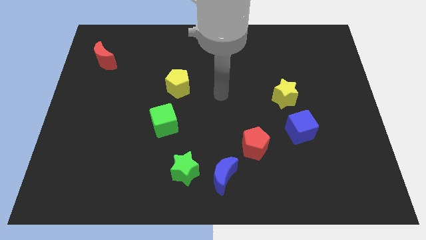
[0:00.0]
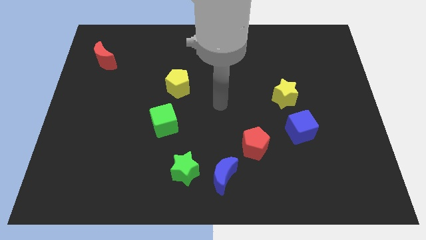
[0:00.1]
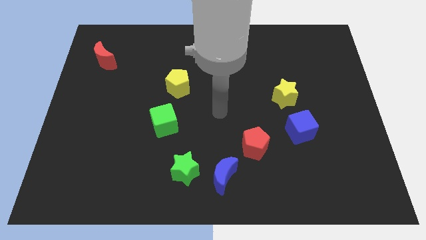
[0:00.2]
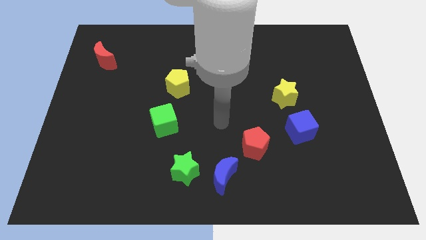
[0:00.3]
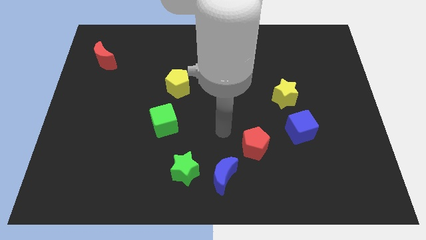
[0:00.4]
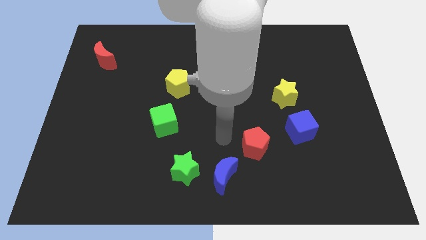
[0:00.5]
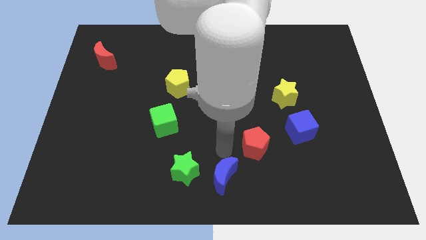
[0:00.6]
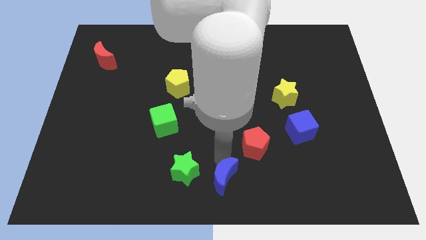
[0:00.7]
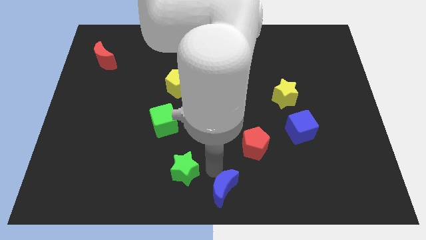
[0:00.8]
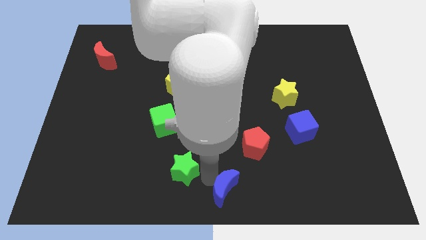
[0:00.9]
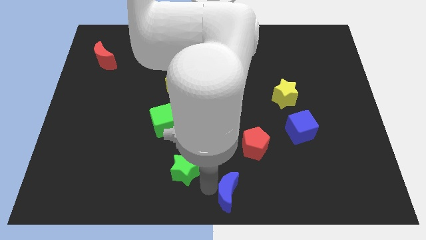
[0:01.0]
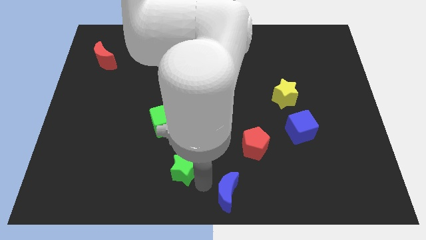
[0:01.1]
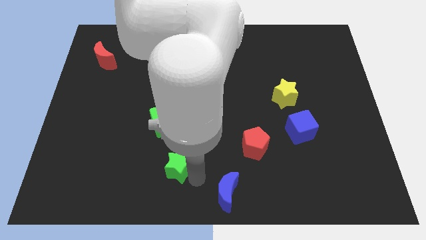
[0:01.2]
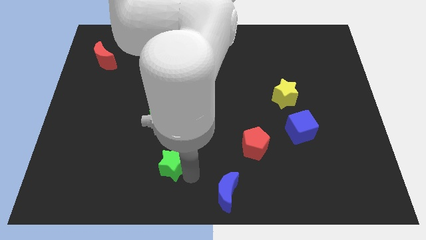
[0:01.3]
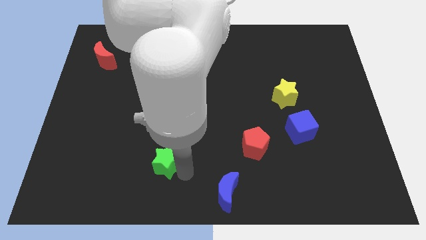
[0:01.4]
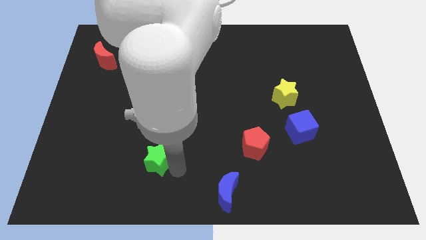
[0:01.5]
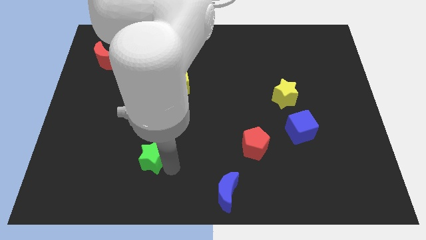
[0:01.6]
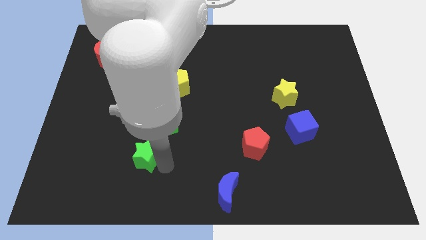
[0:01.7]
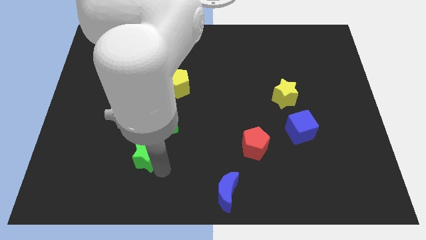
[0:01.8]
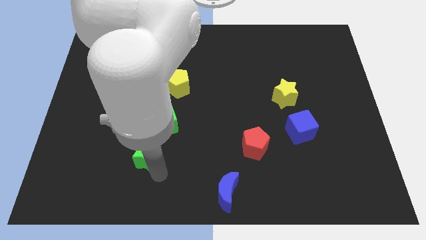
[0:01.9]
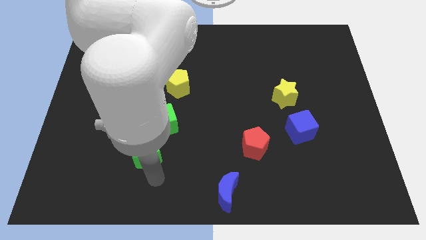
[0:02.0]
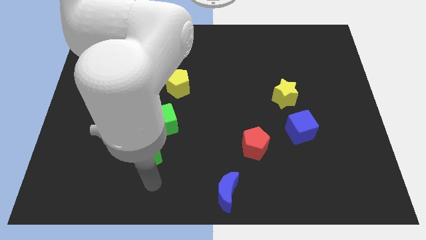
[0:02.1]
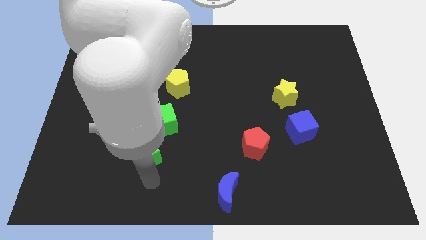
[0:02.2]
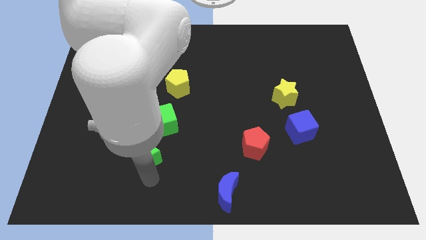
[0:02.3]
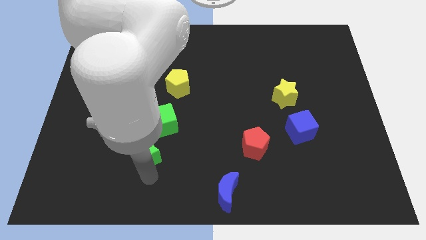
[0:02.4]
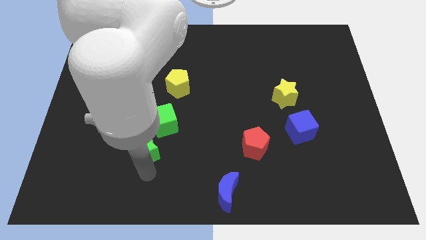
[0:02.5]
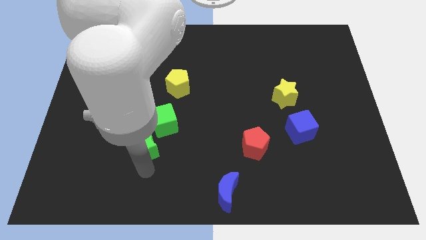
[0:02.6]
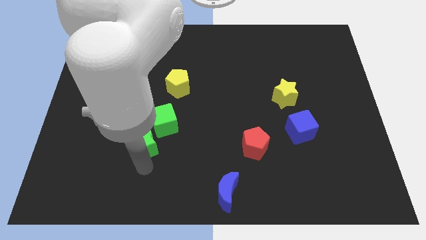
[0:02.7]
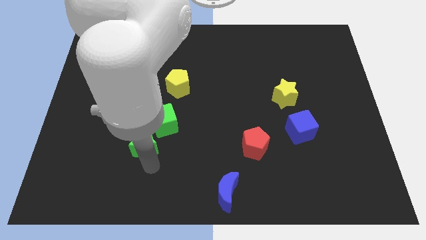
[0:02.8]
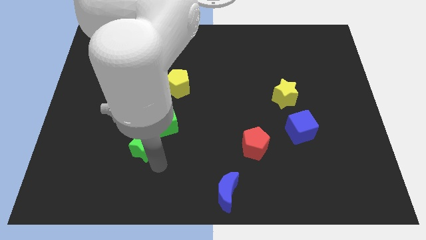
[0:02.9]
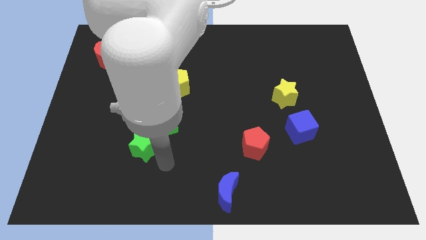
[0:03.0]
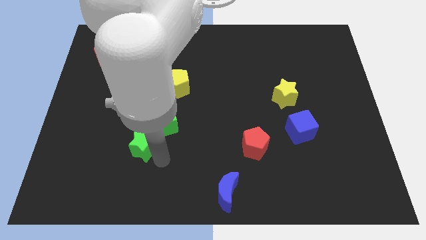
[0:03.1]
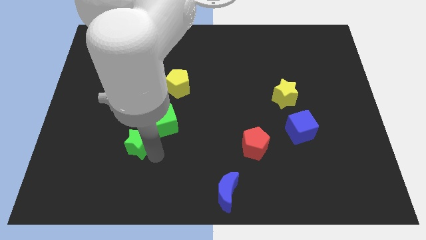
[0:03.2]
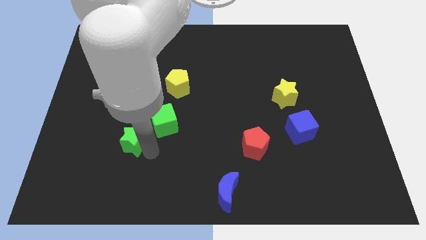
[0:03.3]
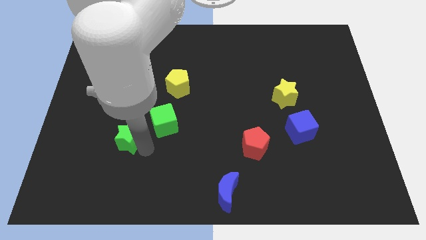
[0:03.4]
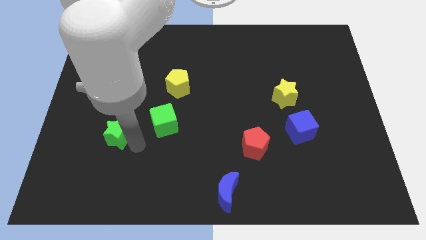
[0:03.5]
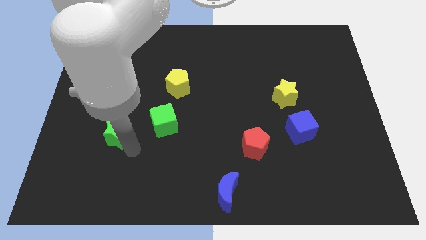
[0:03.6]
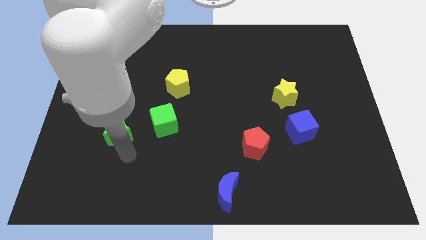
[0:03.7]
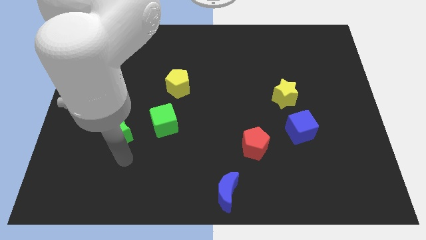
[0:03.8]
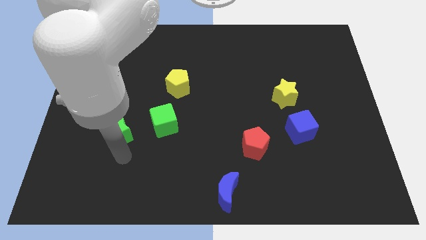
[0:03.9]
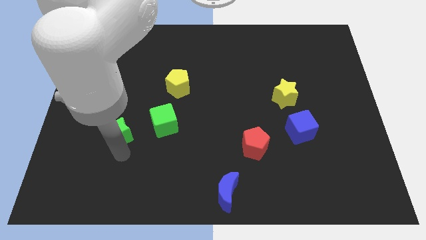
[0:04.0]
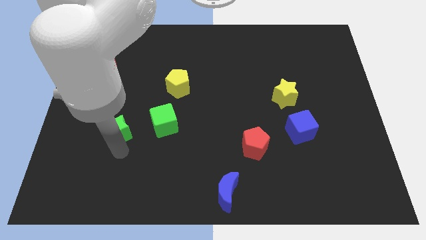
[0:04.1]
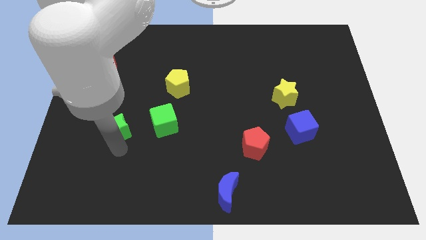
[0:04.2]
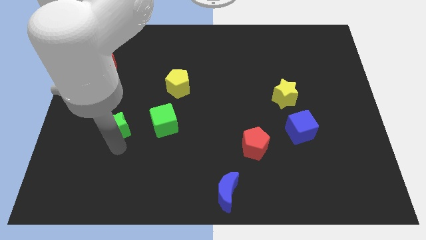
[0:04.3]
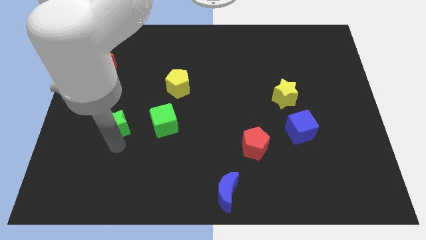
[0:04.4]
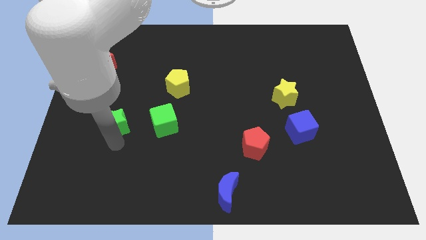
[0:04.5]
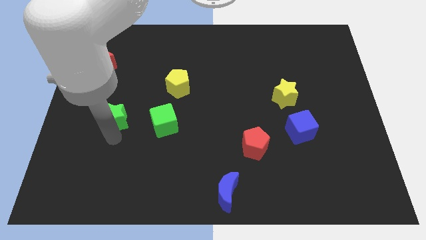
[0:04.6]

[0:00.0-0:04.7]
push the green star upwards and to the left

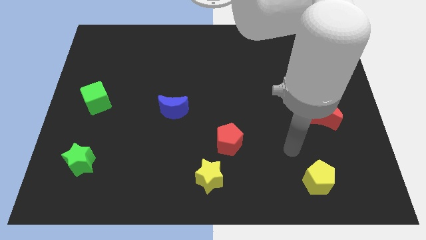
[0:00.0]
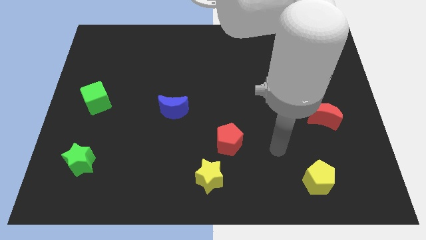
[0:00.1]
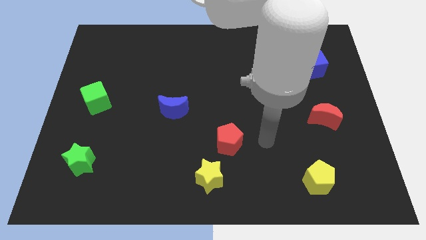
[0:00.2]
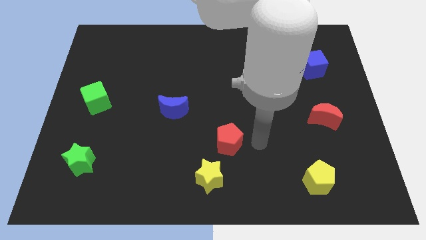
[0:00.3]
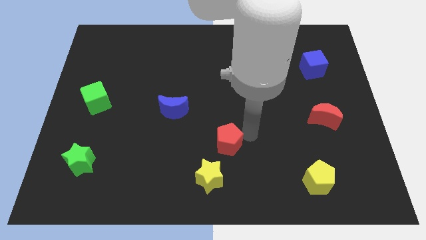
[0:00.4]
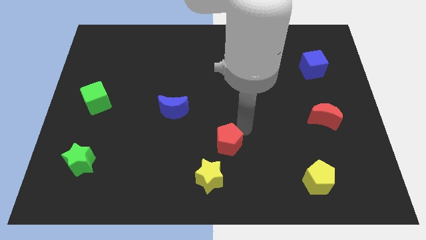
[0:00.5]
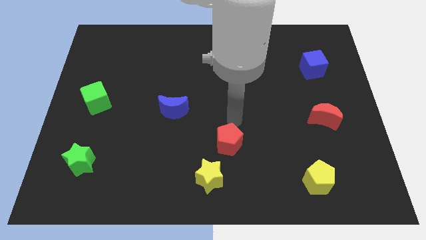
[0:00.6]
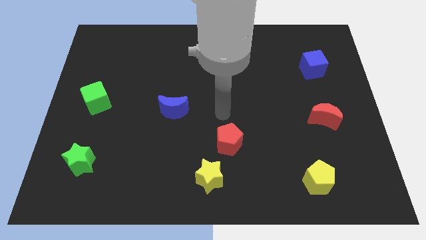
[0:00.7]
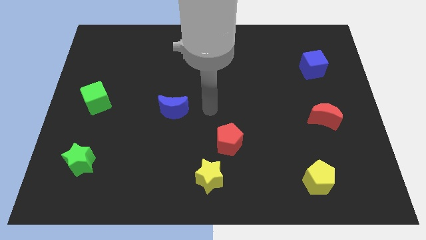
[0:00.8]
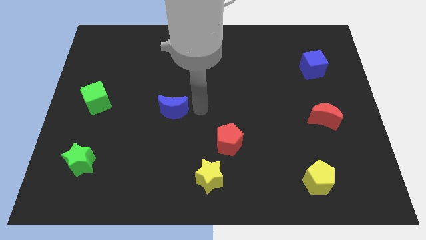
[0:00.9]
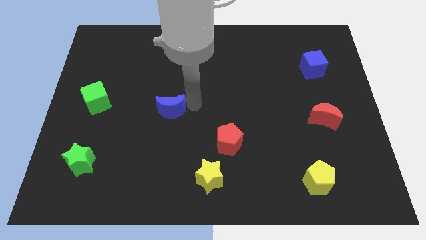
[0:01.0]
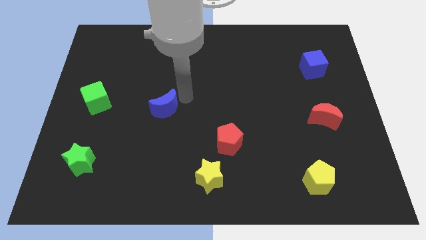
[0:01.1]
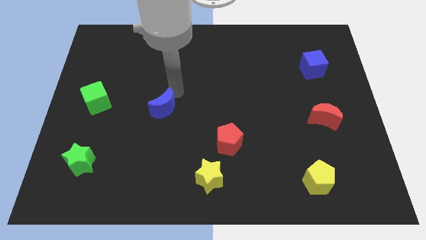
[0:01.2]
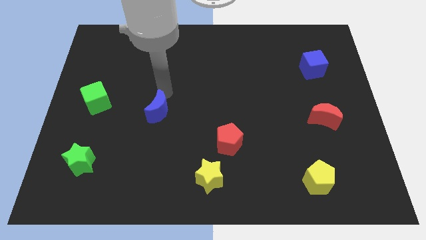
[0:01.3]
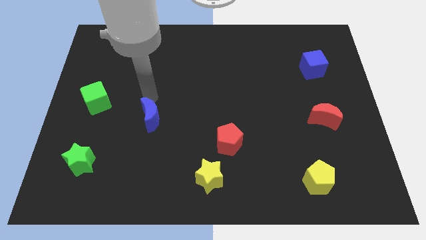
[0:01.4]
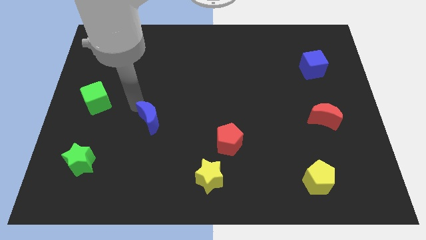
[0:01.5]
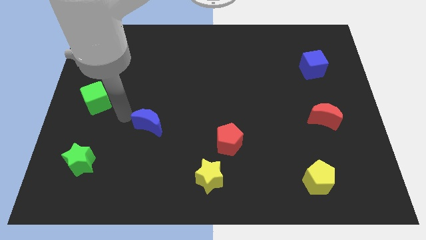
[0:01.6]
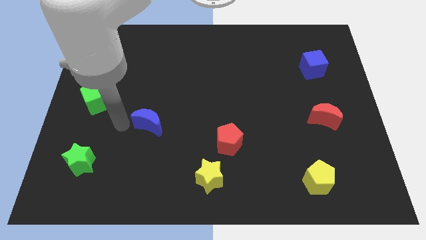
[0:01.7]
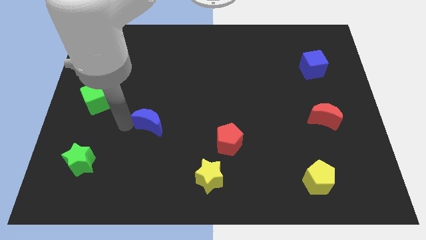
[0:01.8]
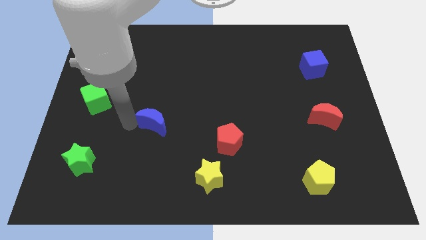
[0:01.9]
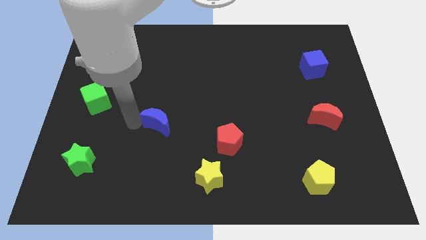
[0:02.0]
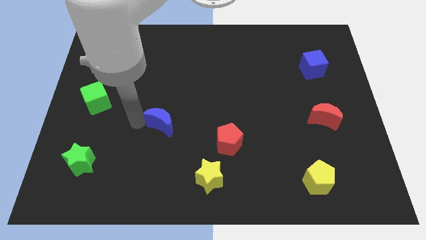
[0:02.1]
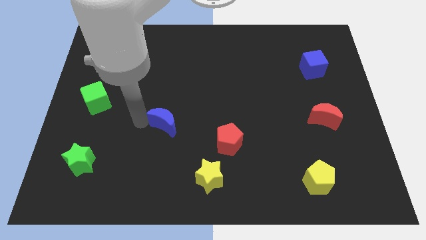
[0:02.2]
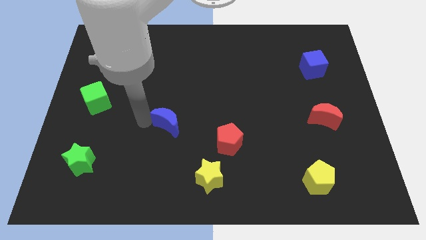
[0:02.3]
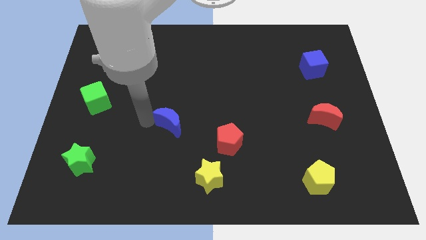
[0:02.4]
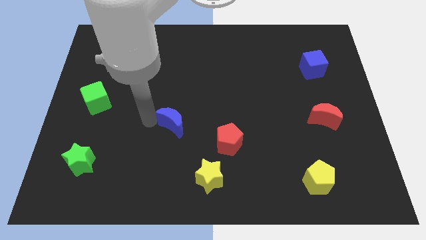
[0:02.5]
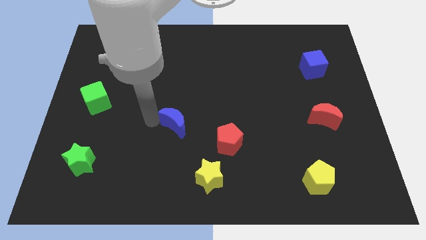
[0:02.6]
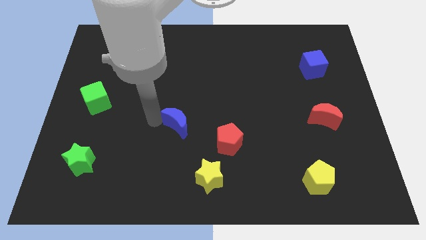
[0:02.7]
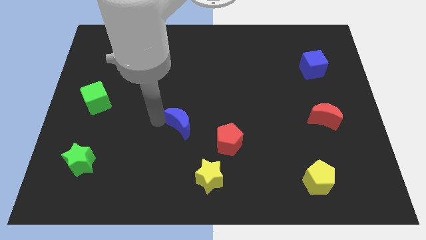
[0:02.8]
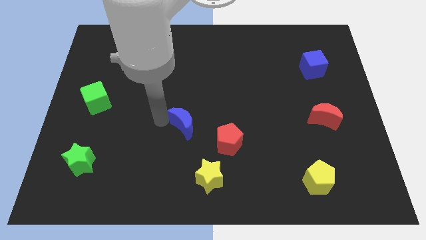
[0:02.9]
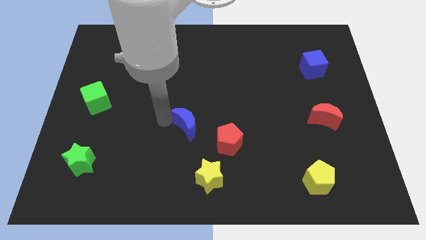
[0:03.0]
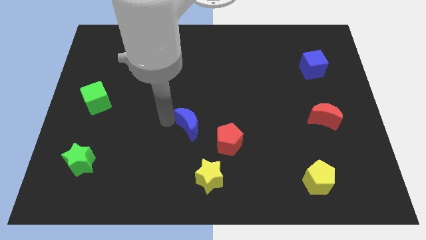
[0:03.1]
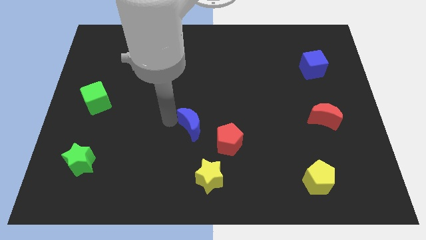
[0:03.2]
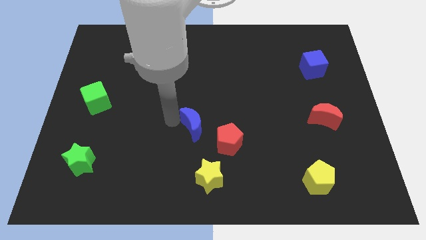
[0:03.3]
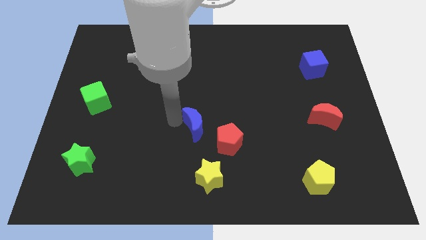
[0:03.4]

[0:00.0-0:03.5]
slightly slide the blue moon down and then right
